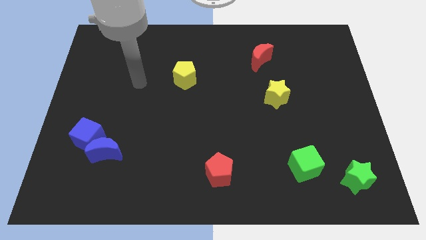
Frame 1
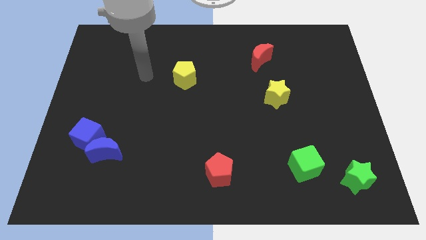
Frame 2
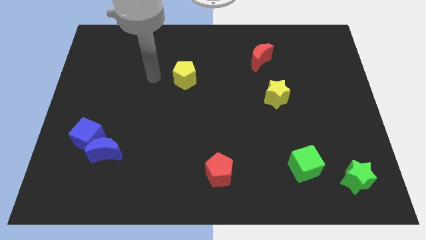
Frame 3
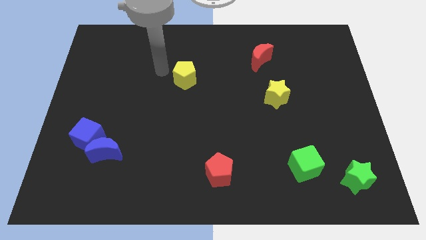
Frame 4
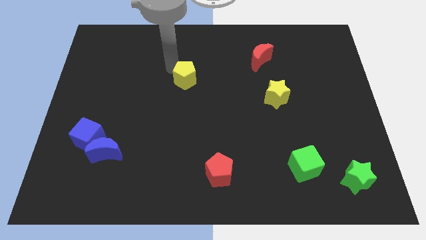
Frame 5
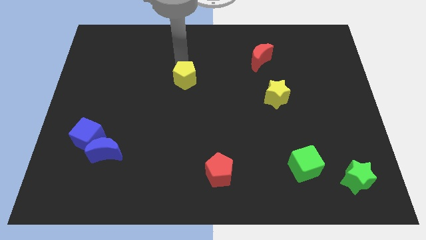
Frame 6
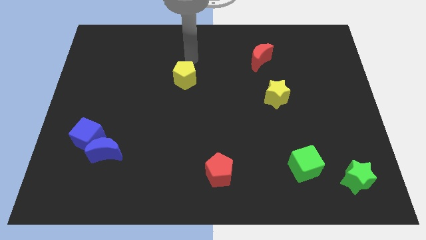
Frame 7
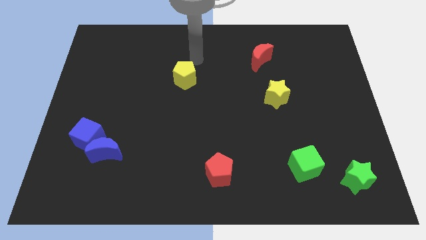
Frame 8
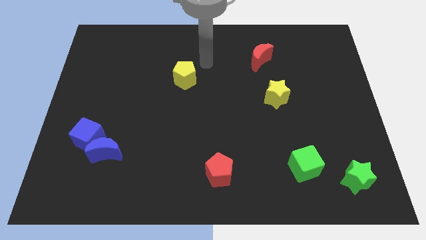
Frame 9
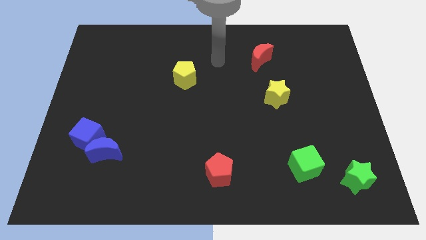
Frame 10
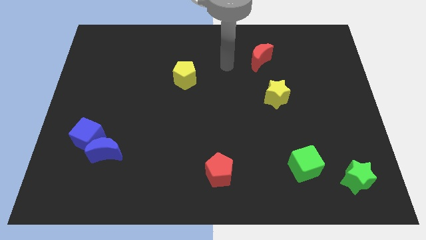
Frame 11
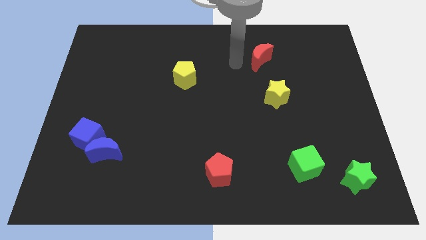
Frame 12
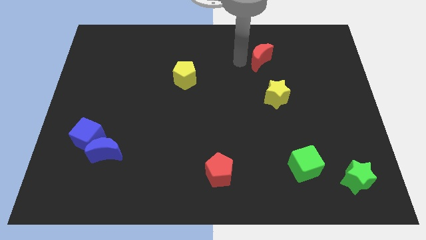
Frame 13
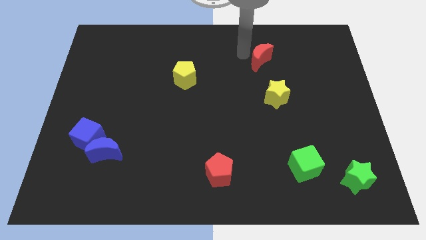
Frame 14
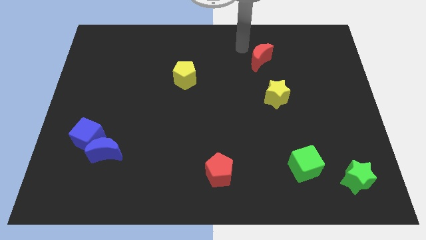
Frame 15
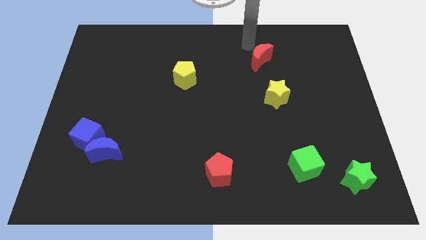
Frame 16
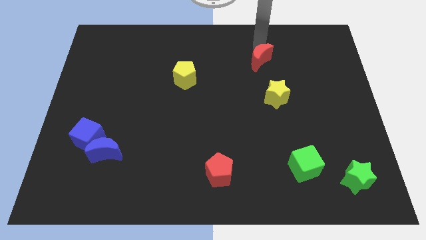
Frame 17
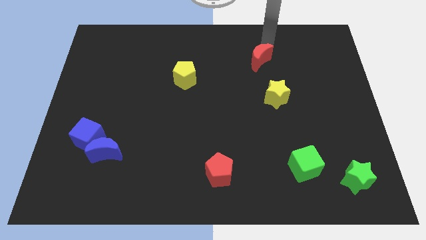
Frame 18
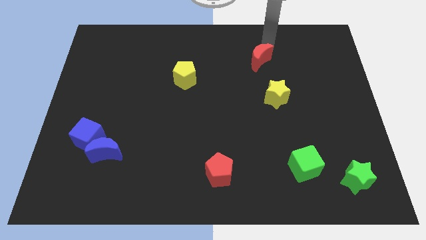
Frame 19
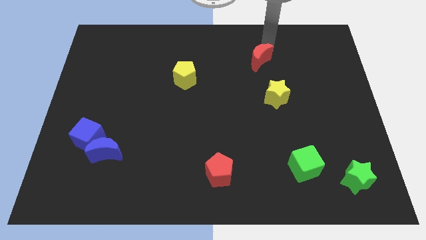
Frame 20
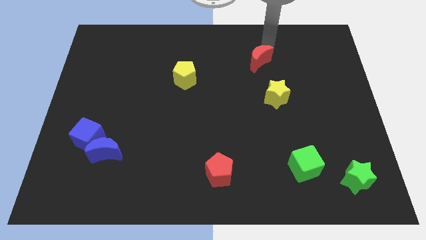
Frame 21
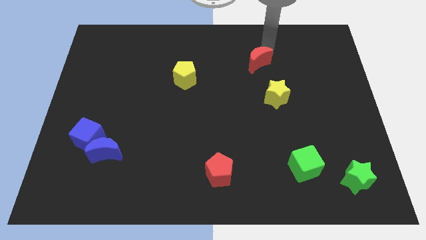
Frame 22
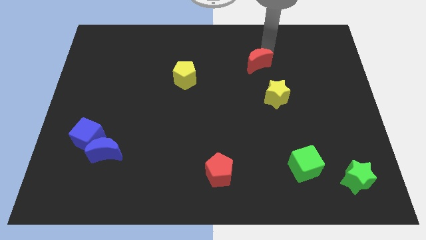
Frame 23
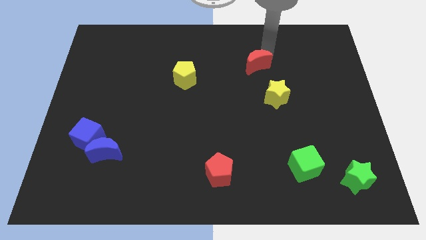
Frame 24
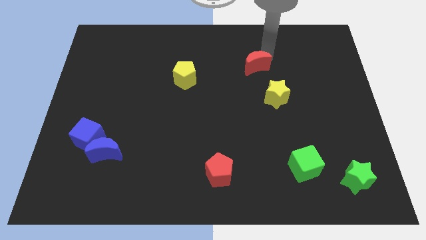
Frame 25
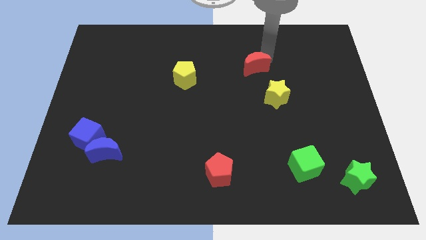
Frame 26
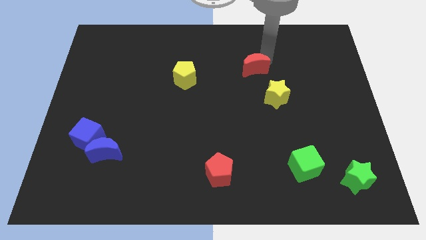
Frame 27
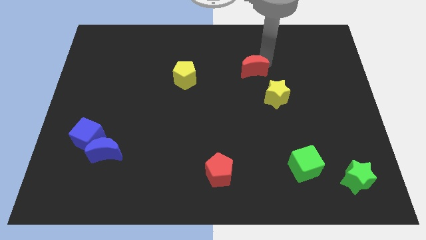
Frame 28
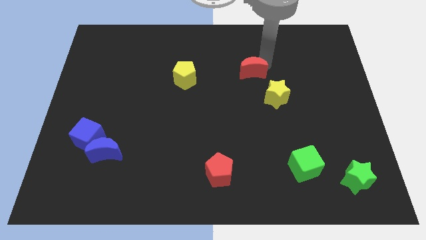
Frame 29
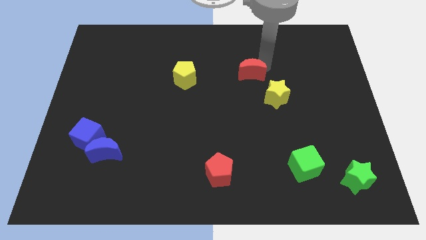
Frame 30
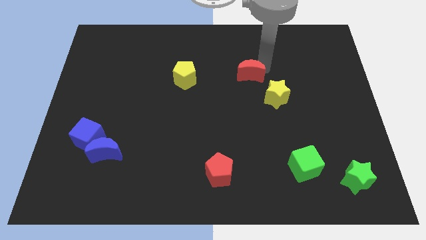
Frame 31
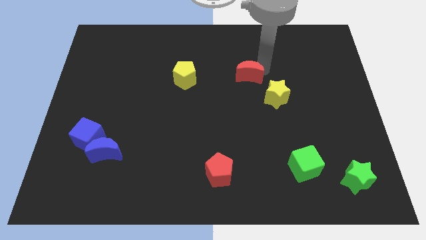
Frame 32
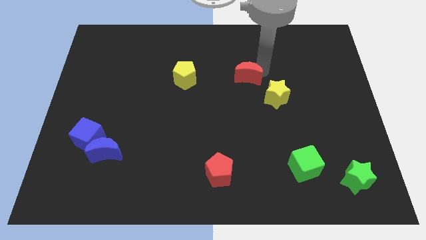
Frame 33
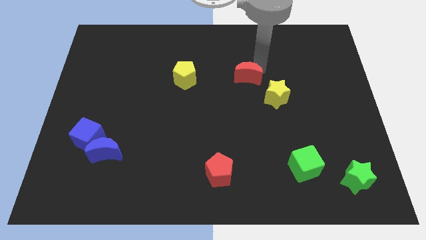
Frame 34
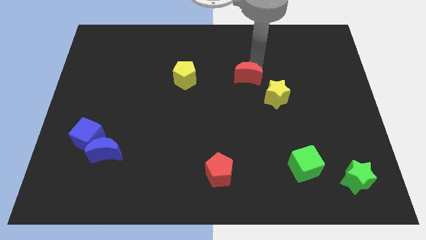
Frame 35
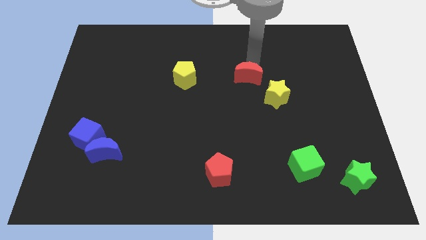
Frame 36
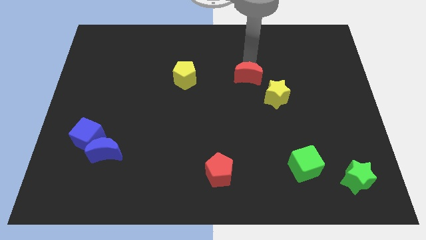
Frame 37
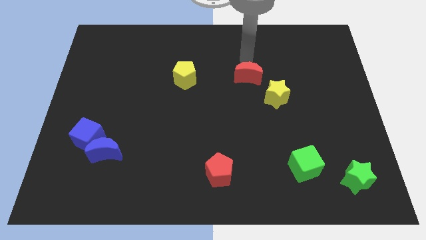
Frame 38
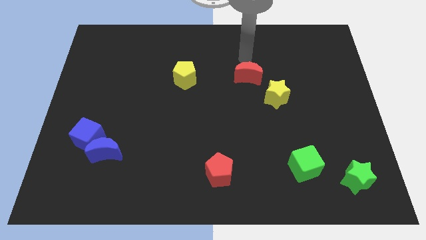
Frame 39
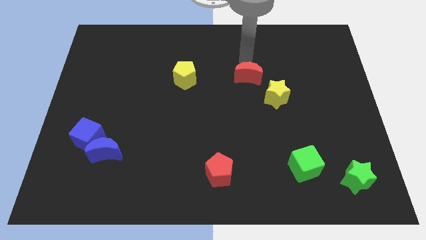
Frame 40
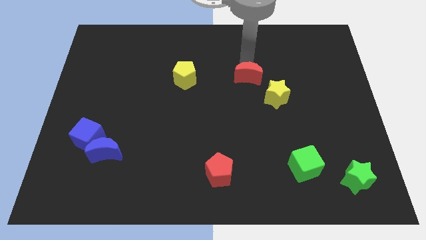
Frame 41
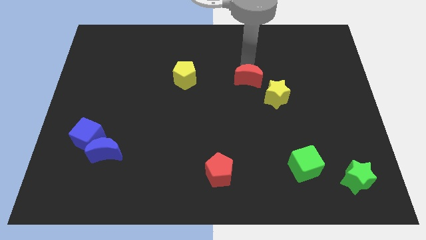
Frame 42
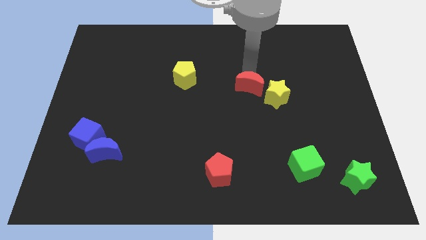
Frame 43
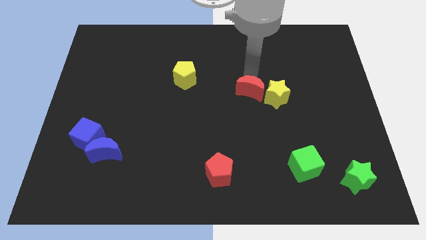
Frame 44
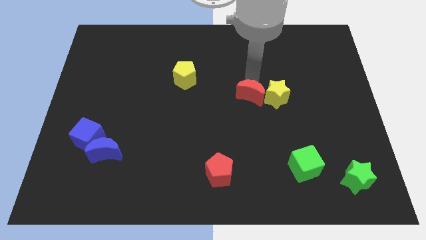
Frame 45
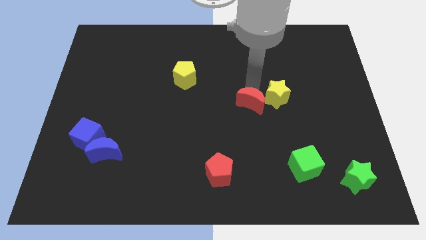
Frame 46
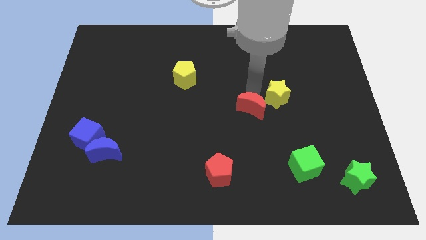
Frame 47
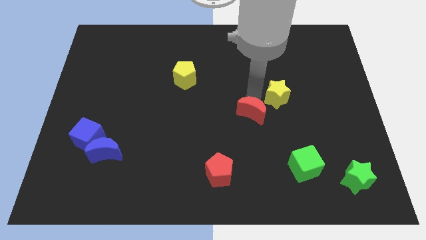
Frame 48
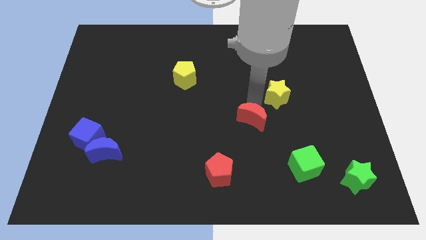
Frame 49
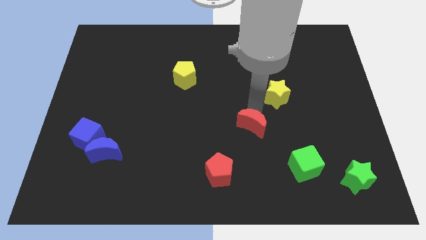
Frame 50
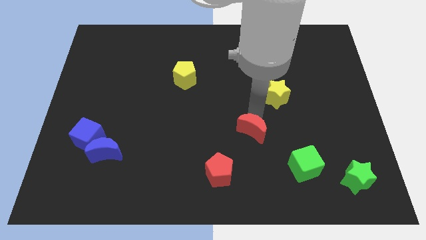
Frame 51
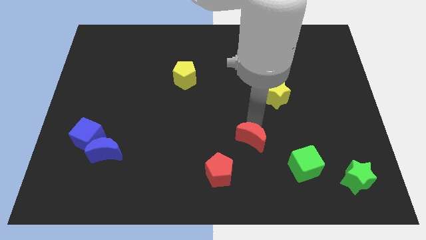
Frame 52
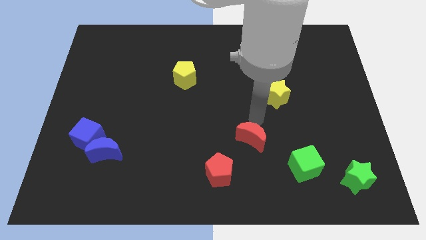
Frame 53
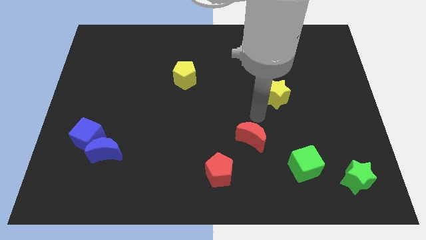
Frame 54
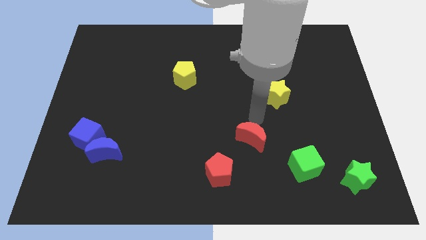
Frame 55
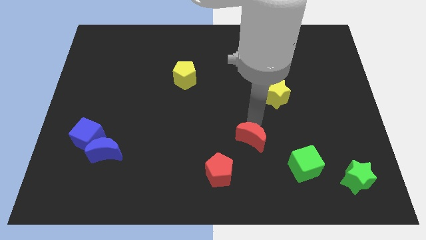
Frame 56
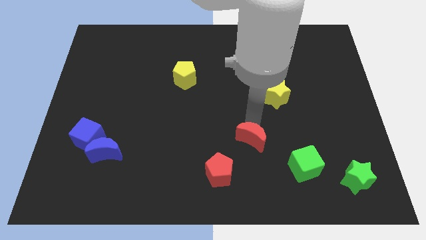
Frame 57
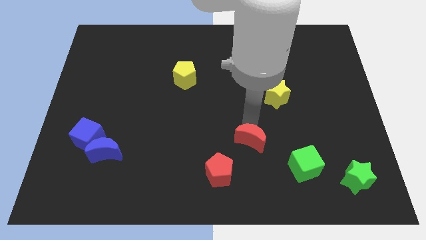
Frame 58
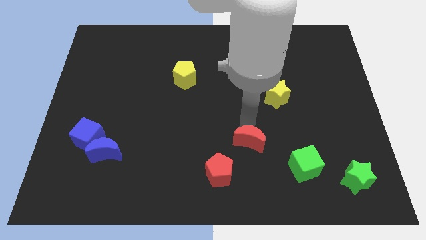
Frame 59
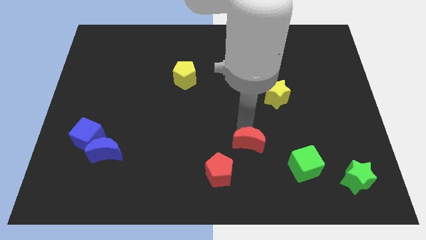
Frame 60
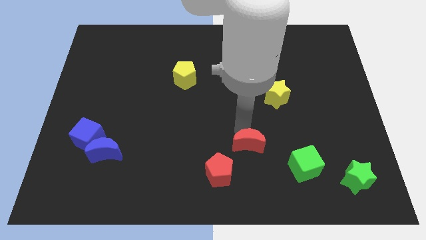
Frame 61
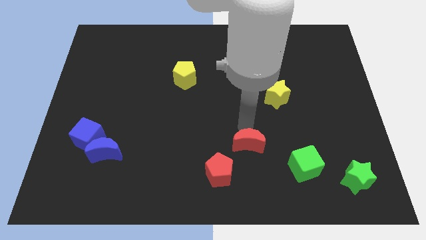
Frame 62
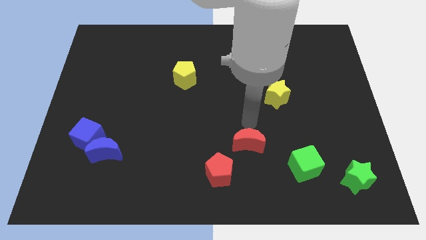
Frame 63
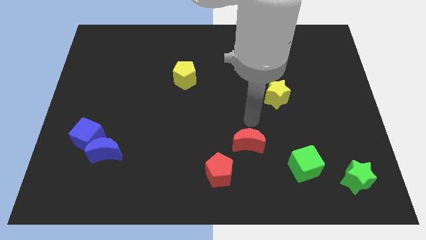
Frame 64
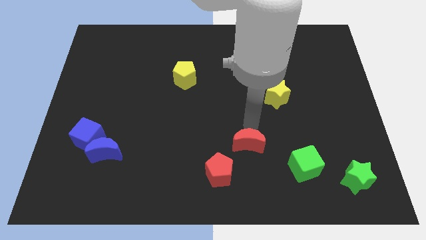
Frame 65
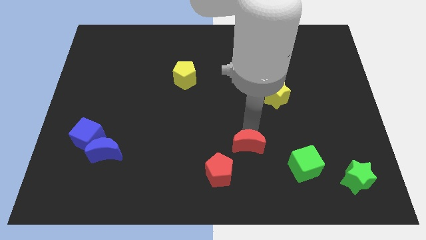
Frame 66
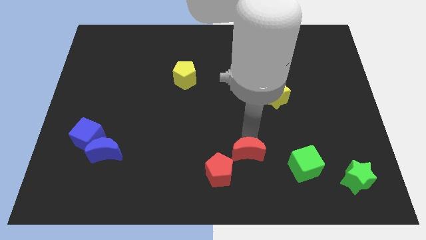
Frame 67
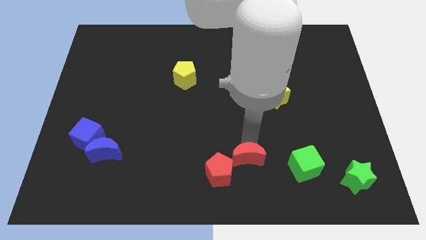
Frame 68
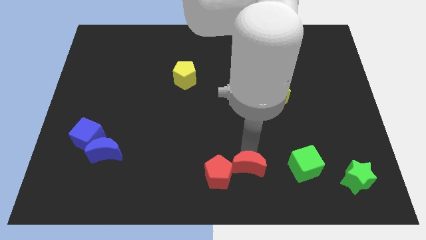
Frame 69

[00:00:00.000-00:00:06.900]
push the red moon to the bottom side

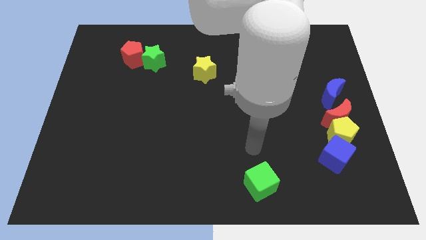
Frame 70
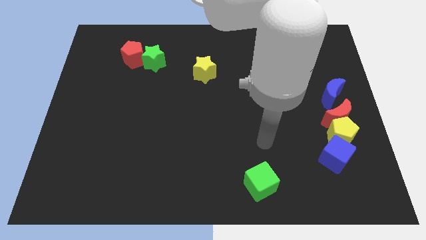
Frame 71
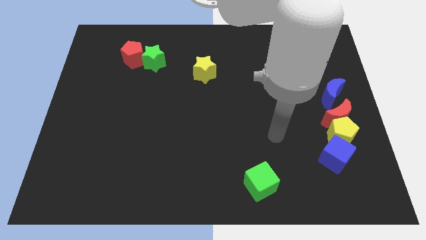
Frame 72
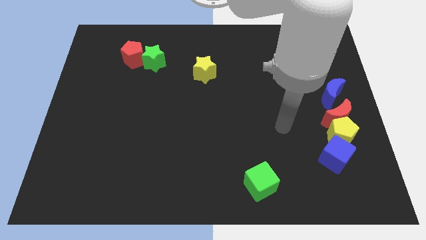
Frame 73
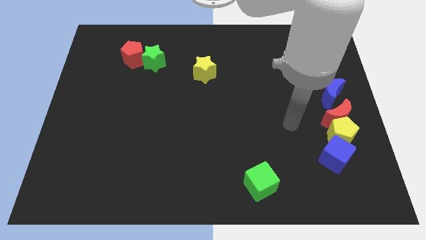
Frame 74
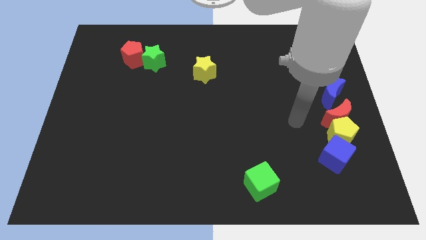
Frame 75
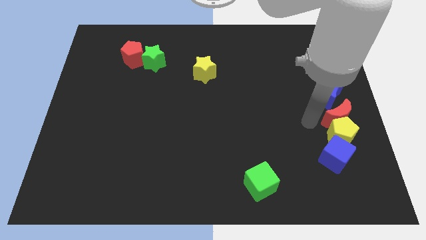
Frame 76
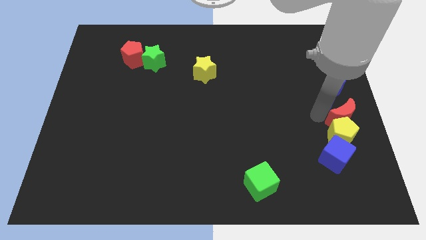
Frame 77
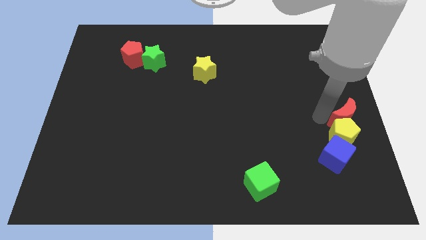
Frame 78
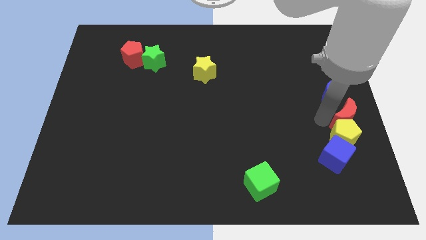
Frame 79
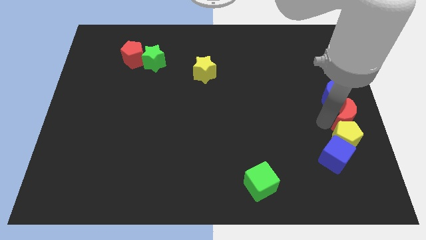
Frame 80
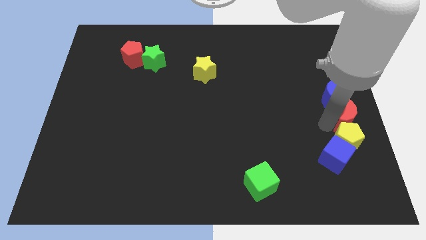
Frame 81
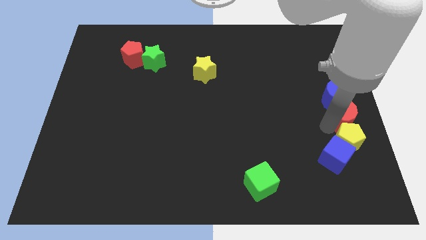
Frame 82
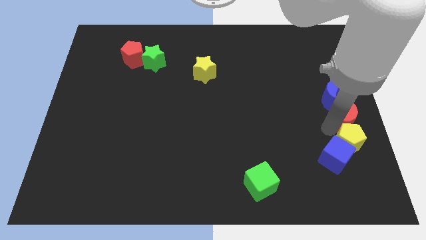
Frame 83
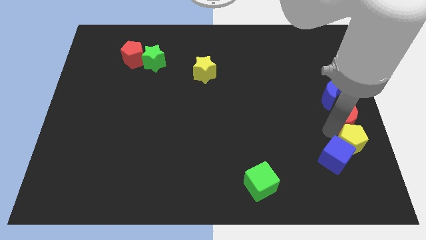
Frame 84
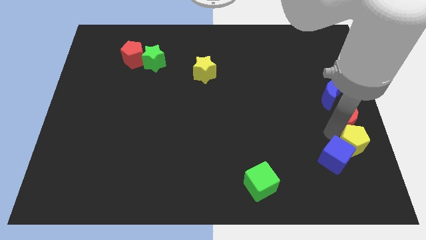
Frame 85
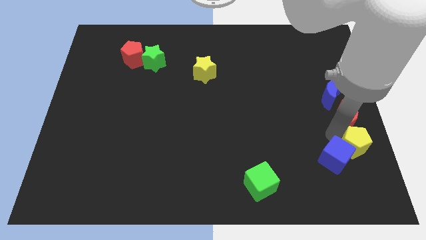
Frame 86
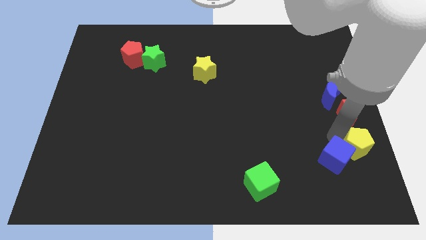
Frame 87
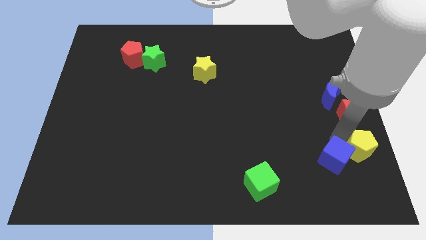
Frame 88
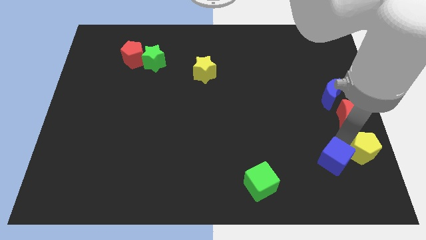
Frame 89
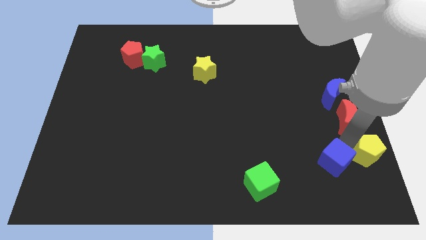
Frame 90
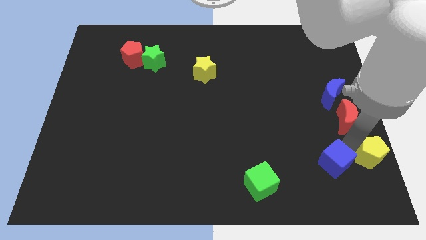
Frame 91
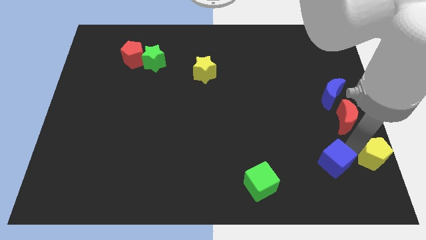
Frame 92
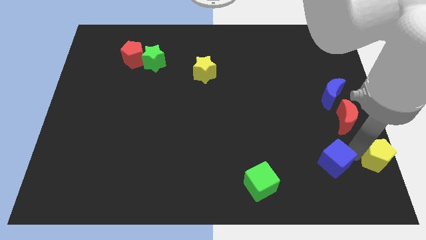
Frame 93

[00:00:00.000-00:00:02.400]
put the yellow pentagon to the bottom right corner
